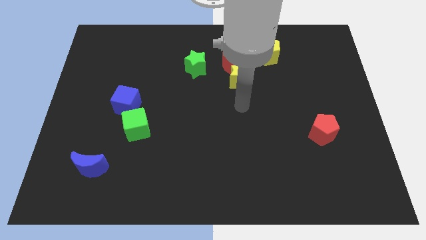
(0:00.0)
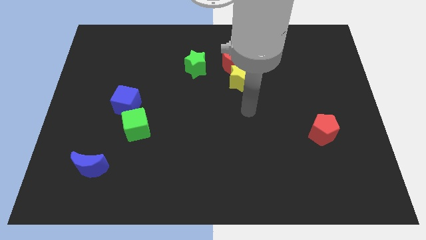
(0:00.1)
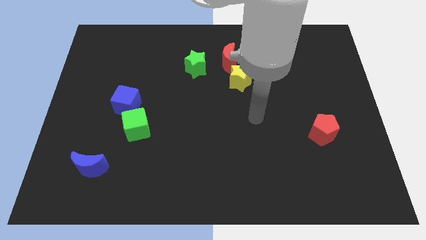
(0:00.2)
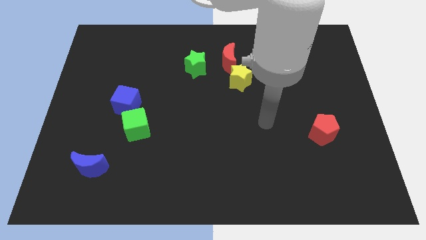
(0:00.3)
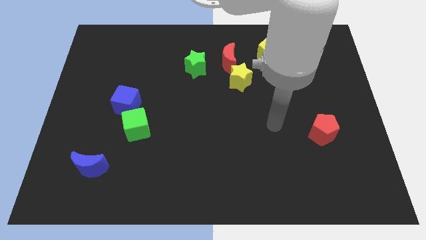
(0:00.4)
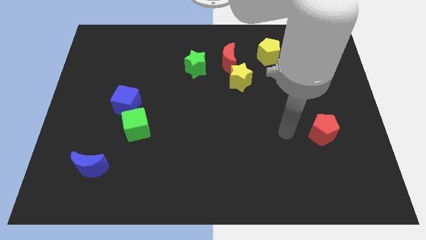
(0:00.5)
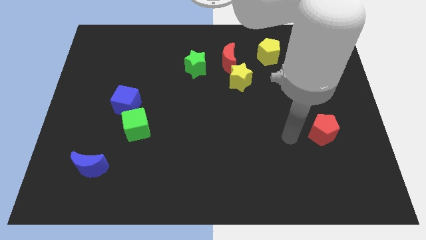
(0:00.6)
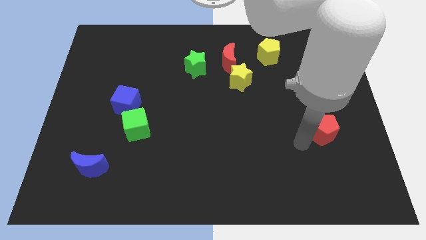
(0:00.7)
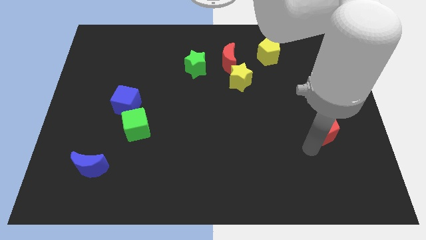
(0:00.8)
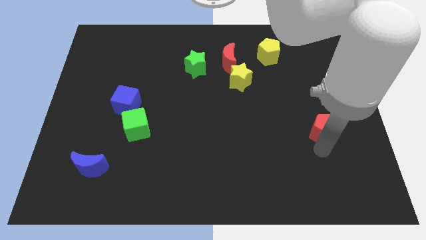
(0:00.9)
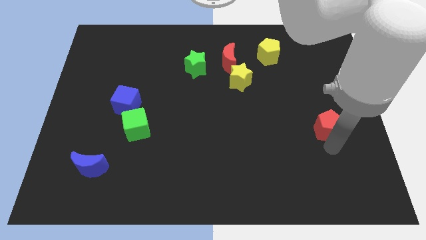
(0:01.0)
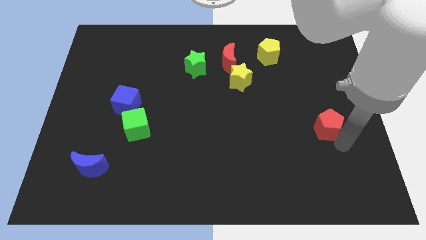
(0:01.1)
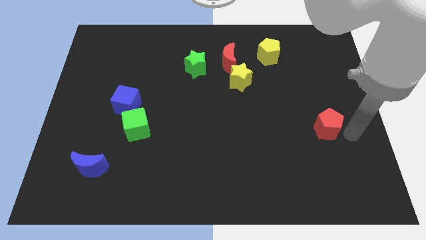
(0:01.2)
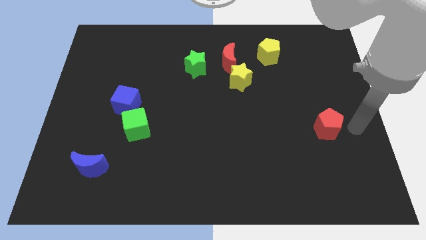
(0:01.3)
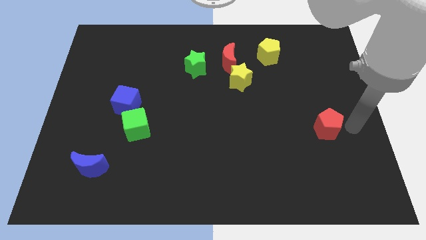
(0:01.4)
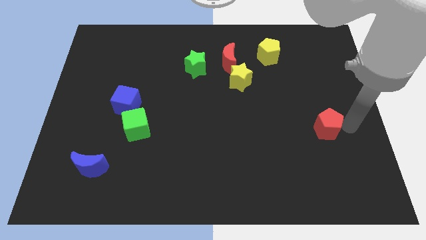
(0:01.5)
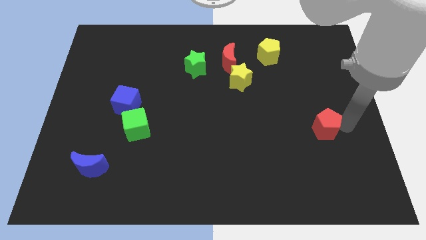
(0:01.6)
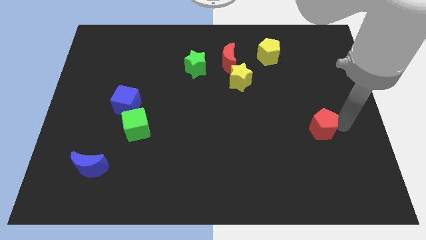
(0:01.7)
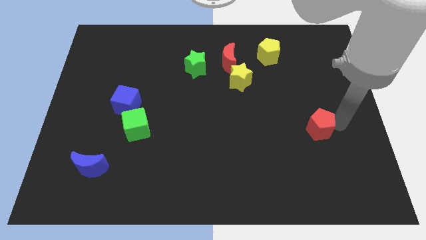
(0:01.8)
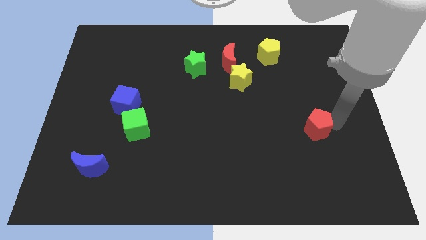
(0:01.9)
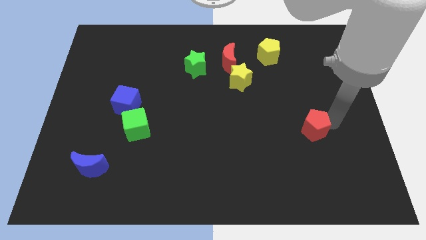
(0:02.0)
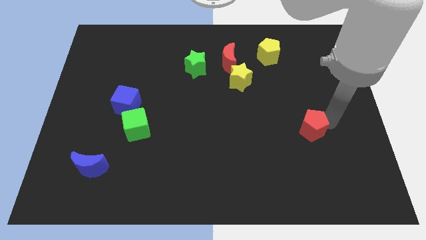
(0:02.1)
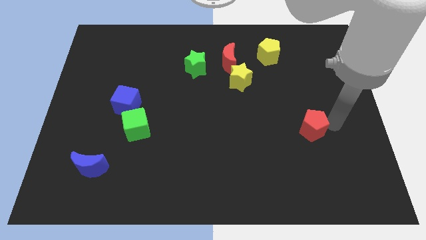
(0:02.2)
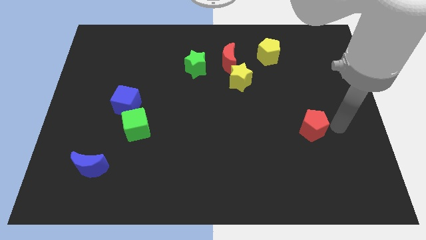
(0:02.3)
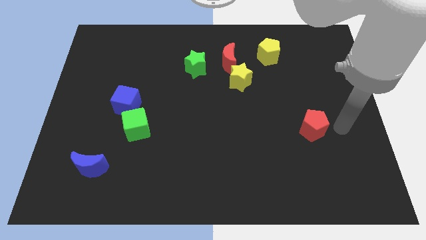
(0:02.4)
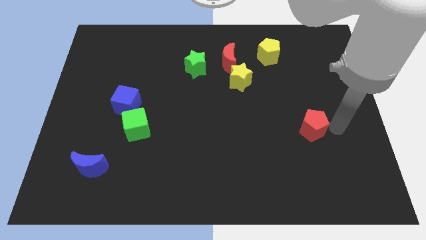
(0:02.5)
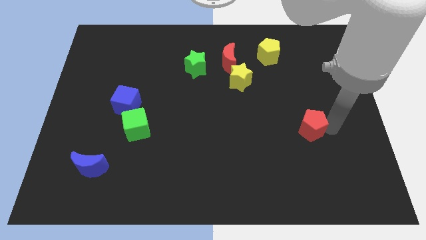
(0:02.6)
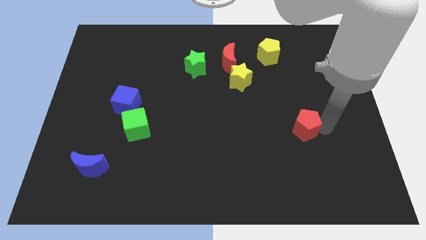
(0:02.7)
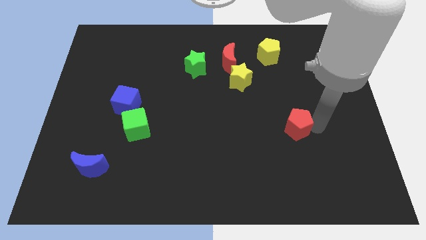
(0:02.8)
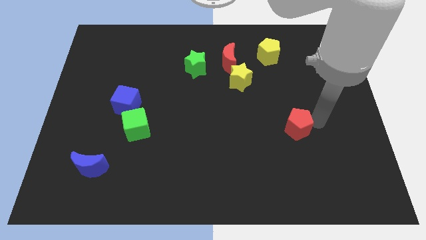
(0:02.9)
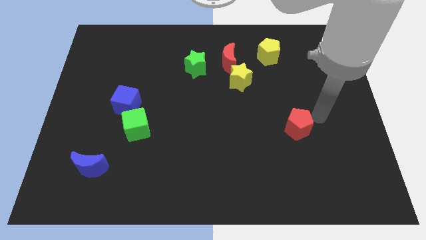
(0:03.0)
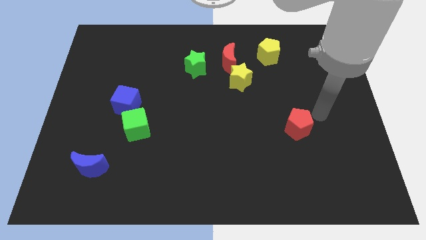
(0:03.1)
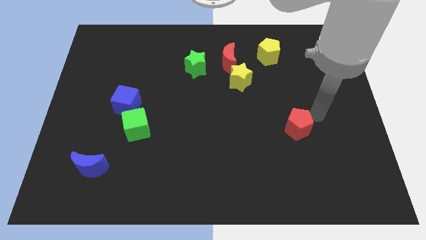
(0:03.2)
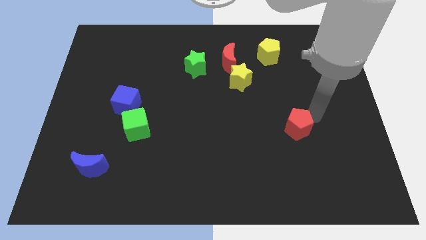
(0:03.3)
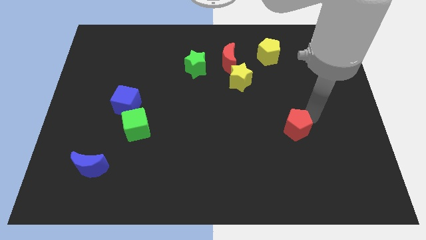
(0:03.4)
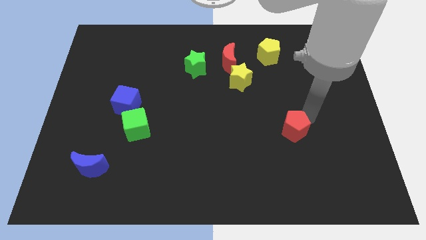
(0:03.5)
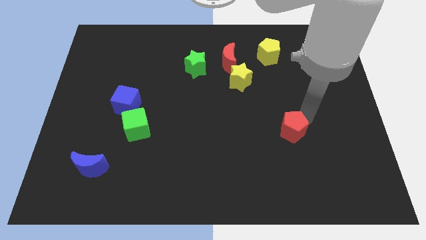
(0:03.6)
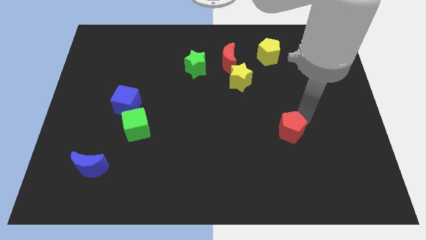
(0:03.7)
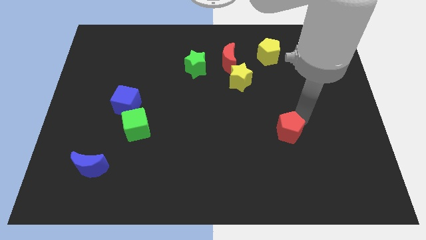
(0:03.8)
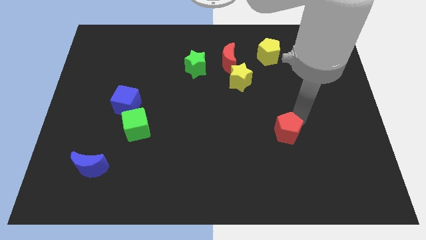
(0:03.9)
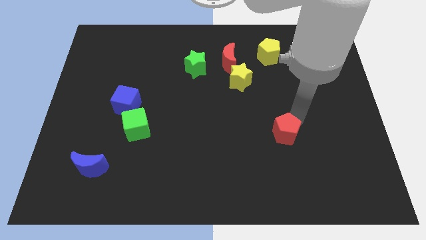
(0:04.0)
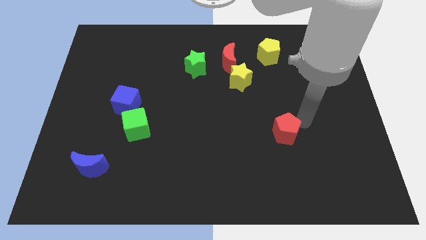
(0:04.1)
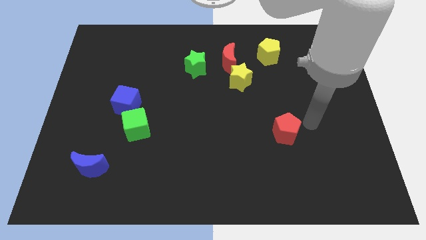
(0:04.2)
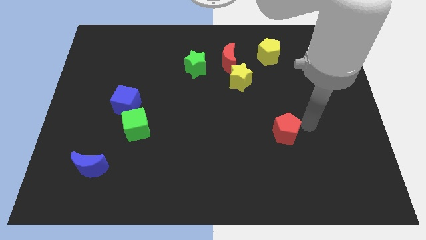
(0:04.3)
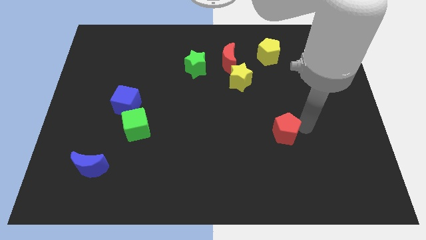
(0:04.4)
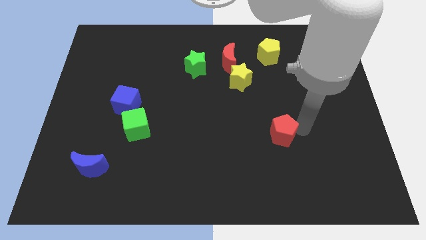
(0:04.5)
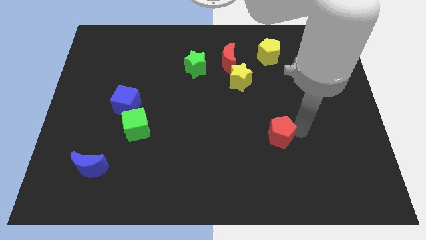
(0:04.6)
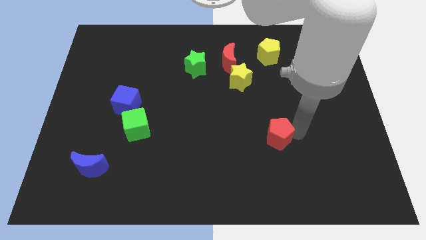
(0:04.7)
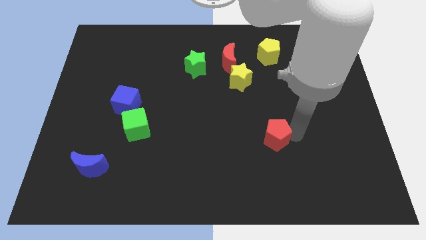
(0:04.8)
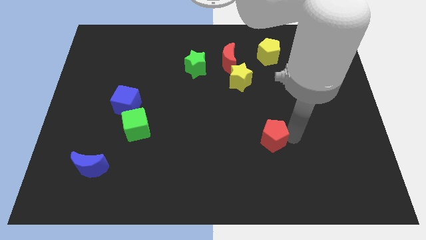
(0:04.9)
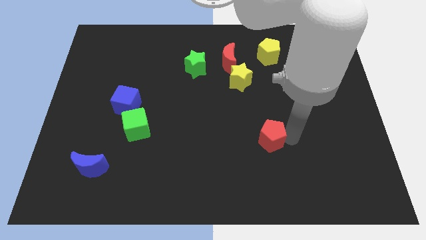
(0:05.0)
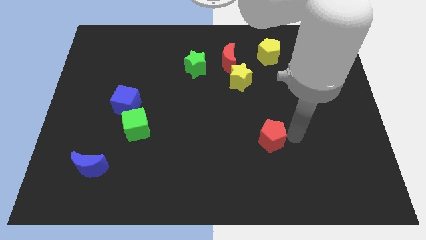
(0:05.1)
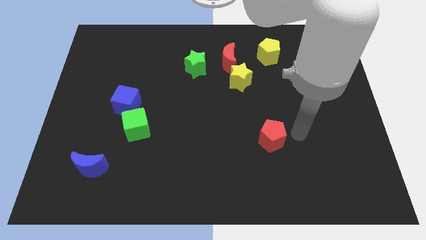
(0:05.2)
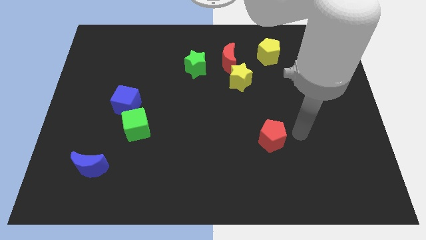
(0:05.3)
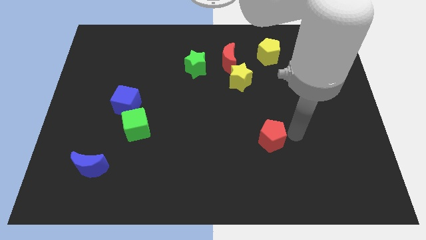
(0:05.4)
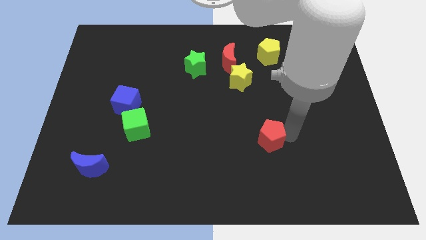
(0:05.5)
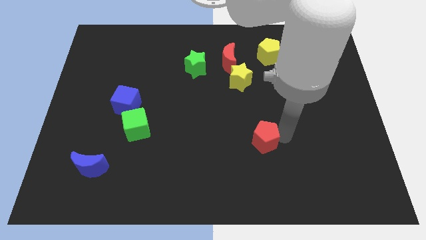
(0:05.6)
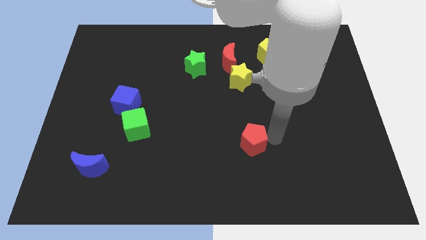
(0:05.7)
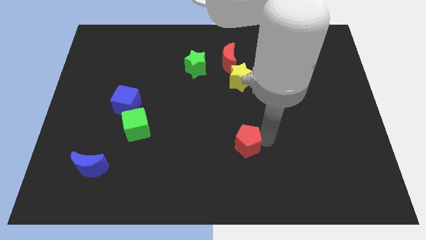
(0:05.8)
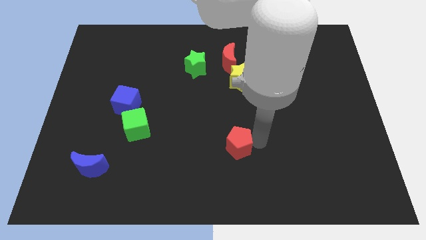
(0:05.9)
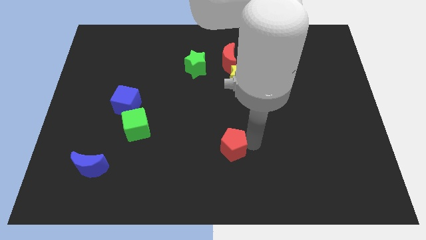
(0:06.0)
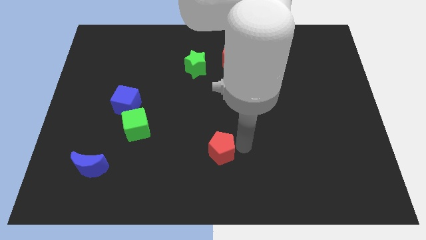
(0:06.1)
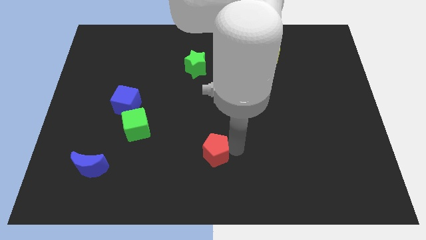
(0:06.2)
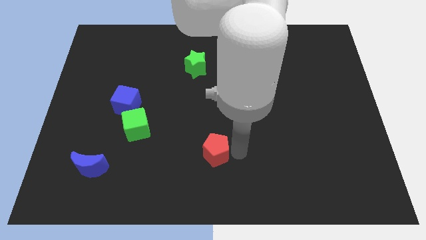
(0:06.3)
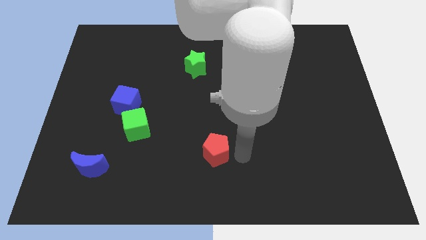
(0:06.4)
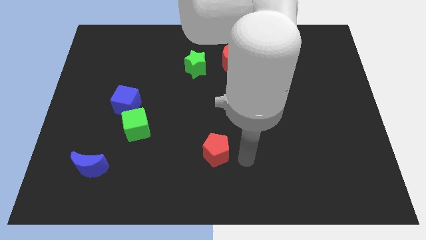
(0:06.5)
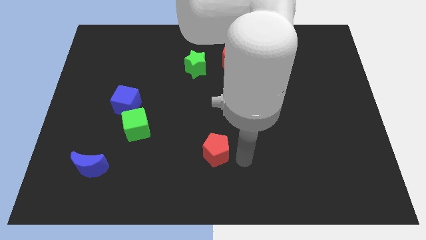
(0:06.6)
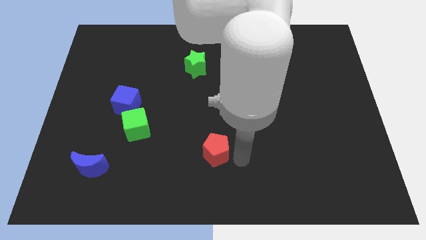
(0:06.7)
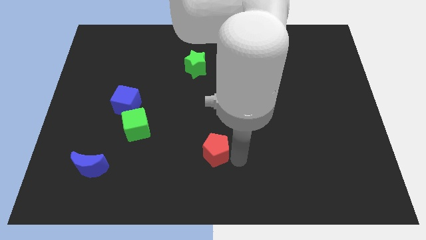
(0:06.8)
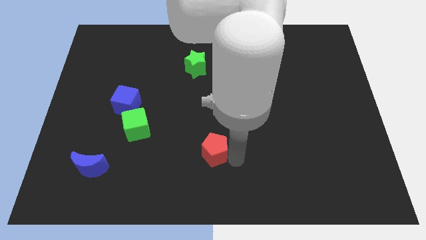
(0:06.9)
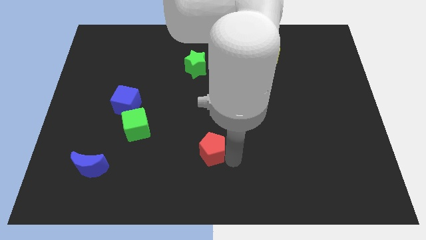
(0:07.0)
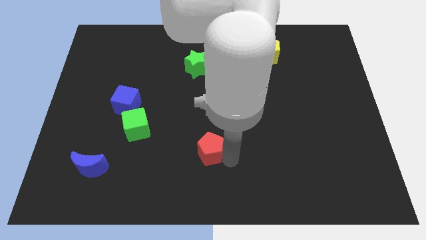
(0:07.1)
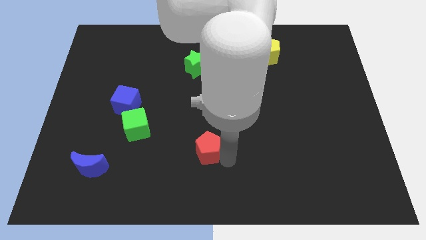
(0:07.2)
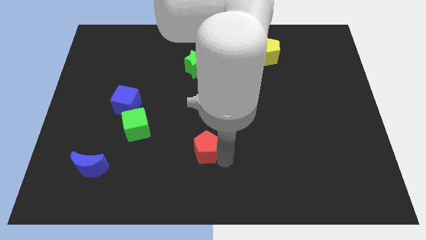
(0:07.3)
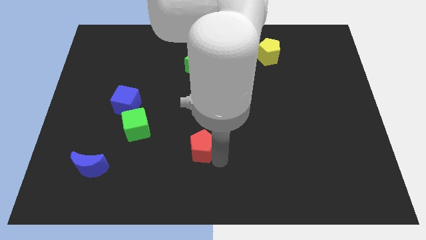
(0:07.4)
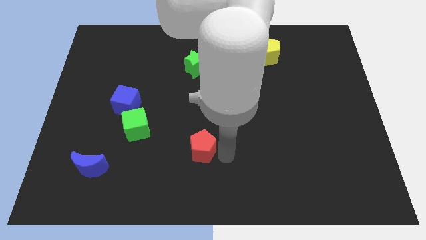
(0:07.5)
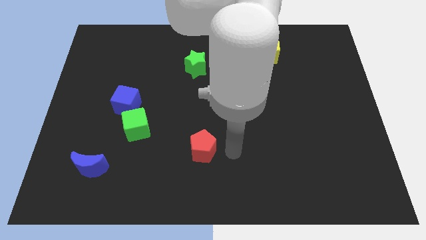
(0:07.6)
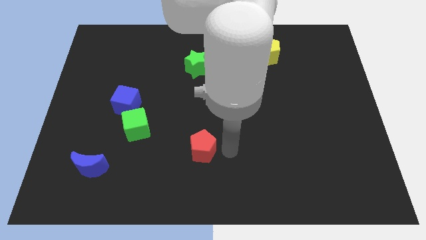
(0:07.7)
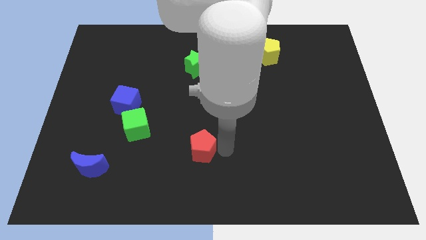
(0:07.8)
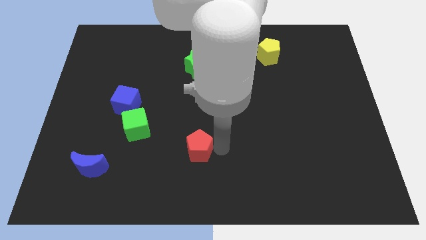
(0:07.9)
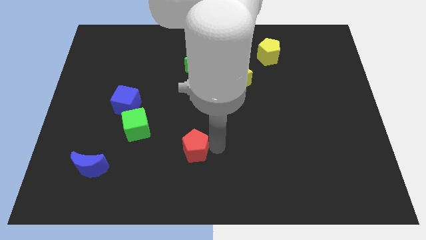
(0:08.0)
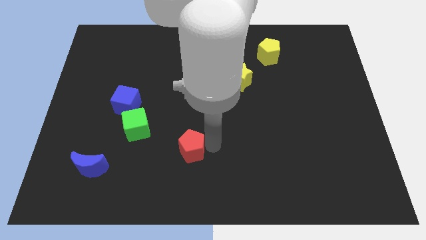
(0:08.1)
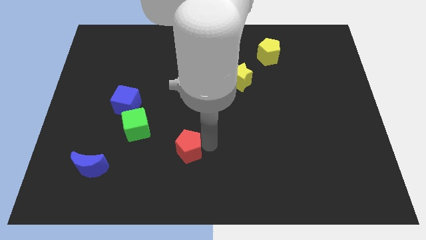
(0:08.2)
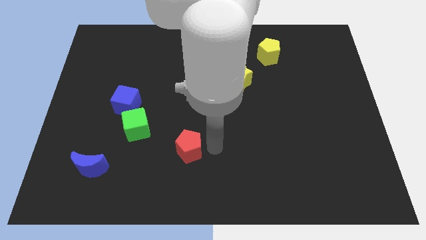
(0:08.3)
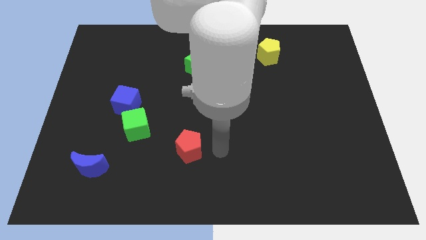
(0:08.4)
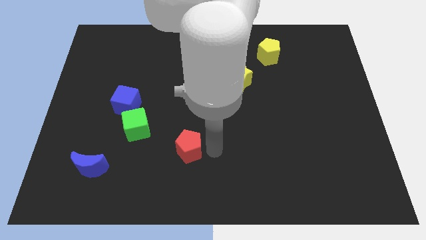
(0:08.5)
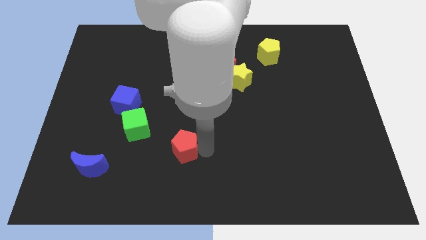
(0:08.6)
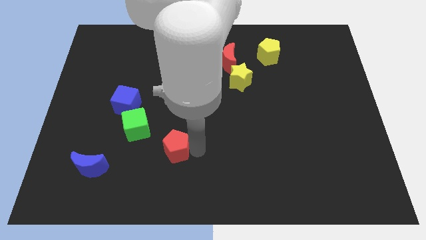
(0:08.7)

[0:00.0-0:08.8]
push the red pentagon to the bottom right of the green cube
